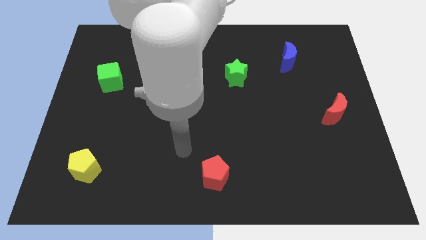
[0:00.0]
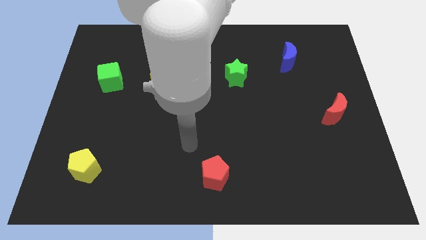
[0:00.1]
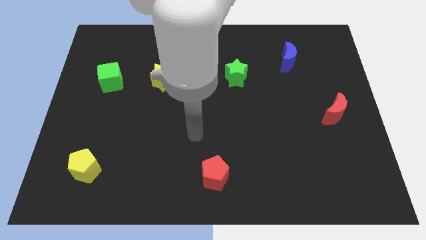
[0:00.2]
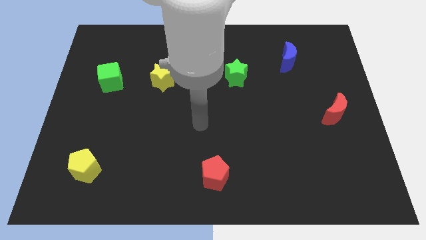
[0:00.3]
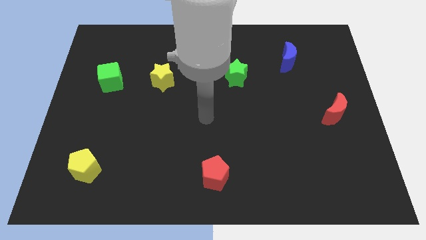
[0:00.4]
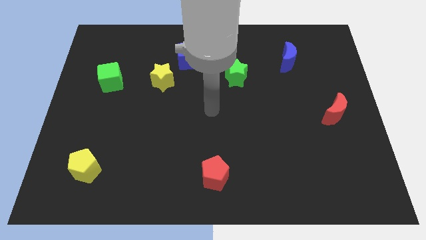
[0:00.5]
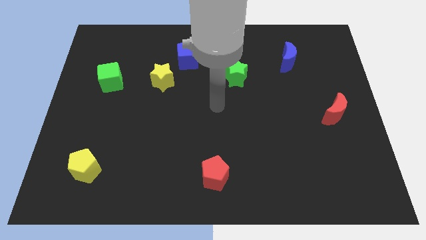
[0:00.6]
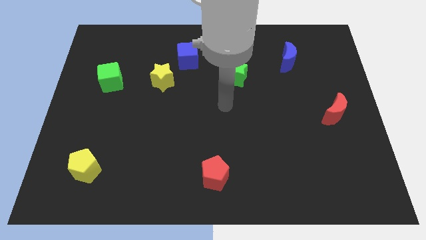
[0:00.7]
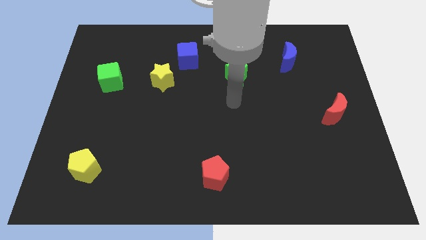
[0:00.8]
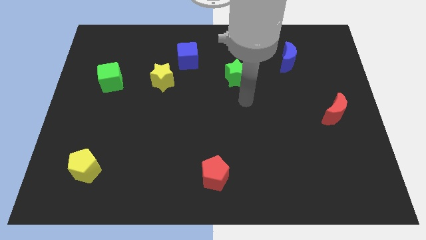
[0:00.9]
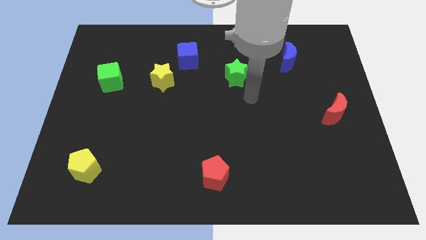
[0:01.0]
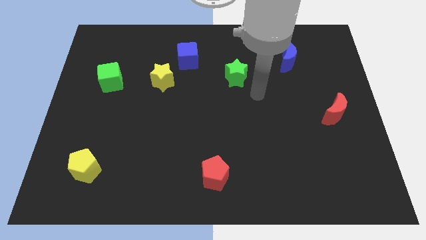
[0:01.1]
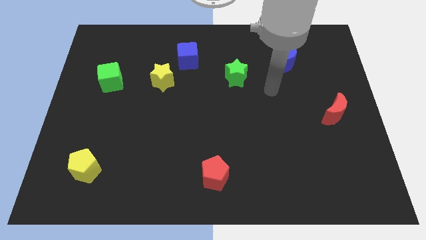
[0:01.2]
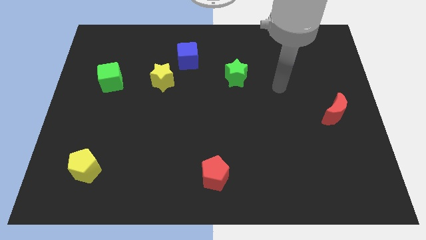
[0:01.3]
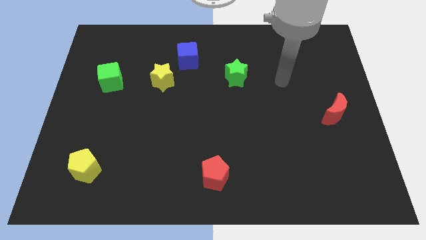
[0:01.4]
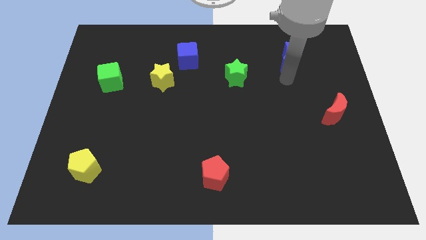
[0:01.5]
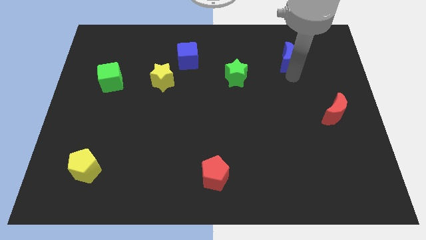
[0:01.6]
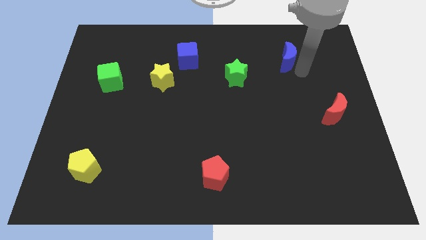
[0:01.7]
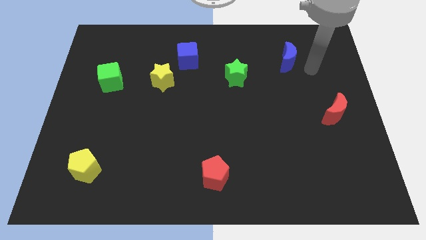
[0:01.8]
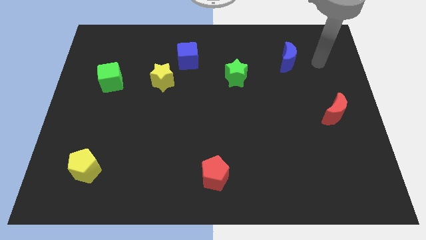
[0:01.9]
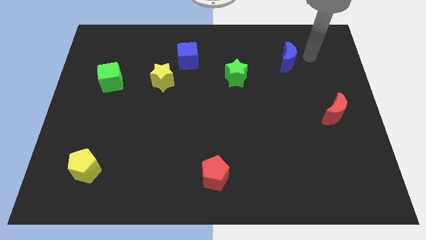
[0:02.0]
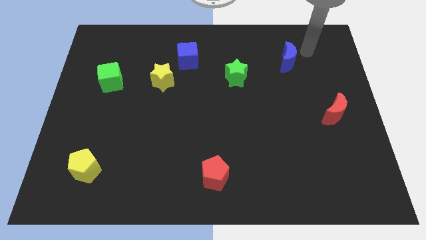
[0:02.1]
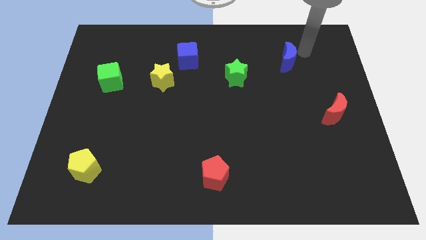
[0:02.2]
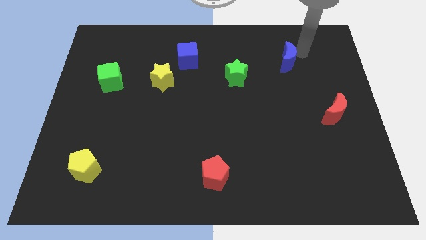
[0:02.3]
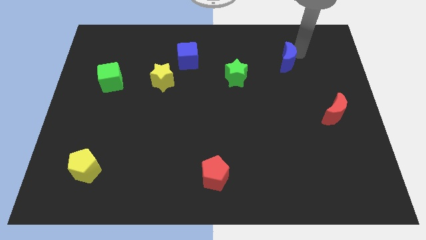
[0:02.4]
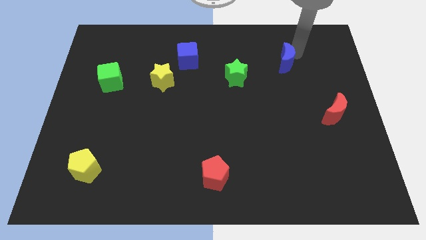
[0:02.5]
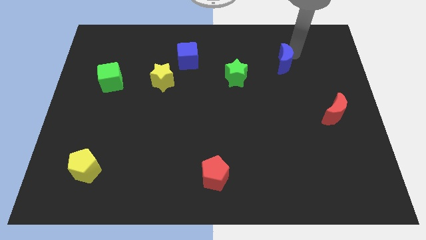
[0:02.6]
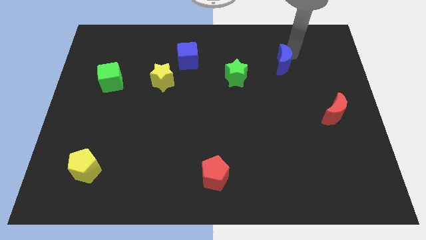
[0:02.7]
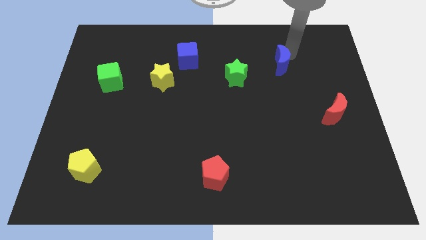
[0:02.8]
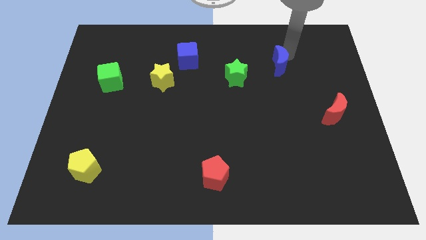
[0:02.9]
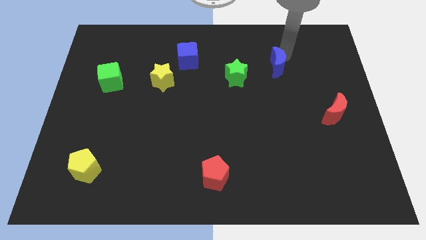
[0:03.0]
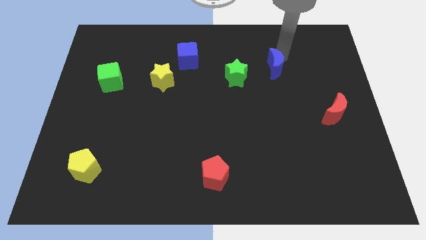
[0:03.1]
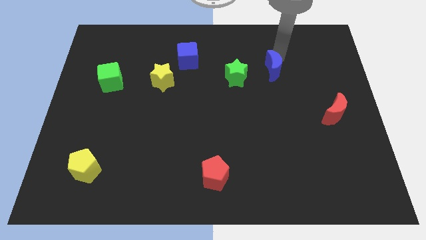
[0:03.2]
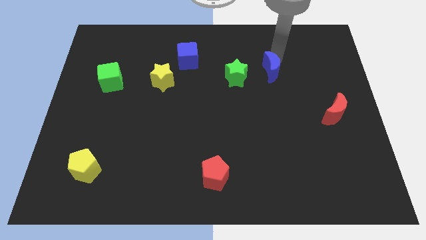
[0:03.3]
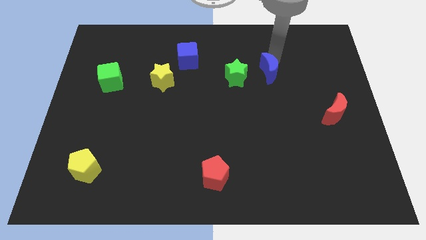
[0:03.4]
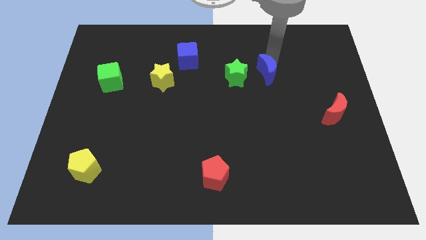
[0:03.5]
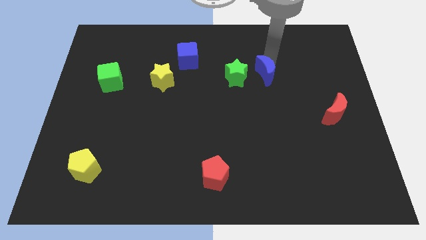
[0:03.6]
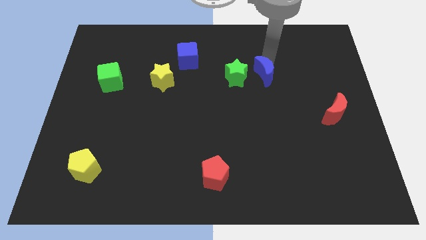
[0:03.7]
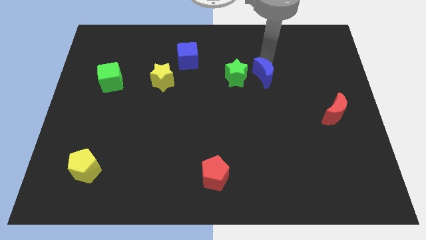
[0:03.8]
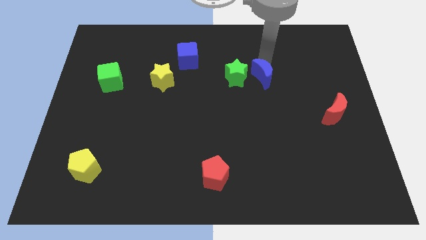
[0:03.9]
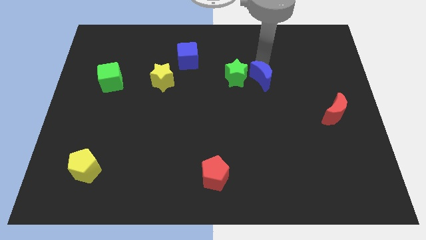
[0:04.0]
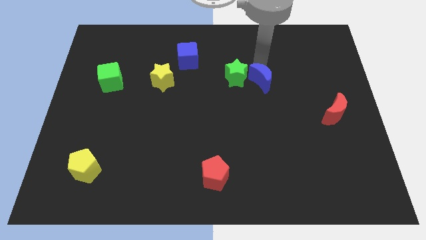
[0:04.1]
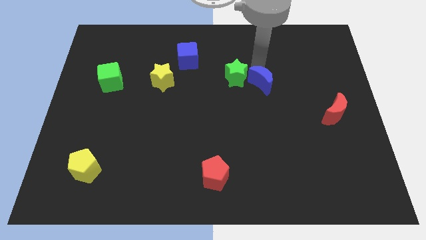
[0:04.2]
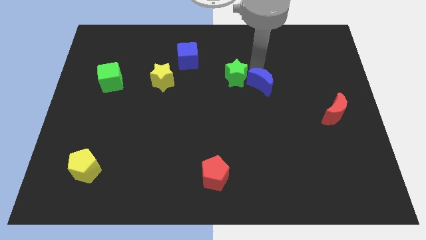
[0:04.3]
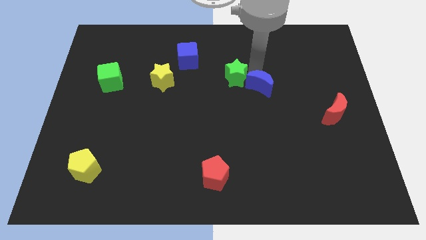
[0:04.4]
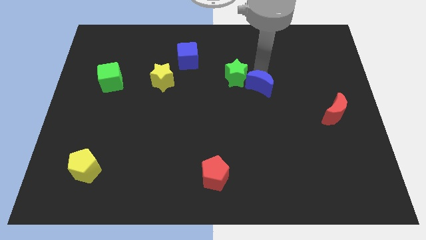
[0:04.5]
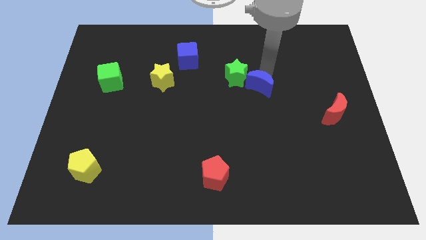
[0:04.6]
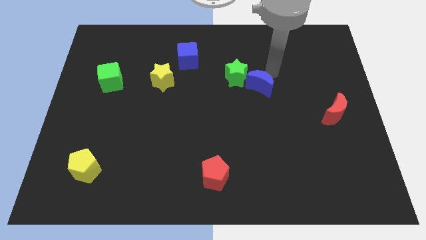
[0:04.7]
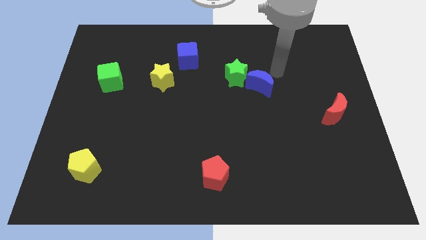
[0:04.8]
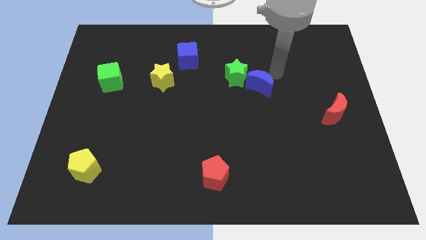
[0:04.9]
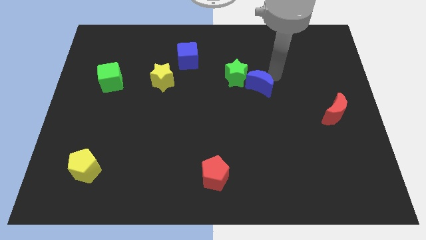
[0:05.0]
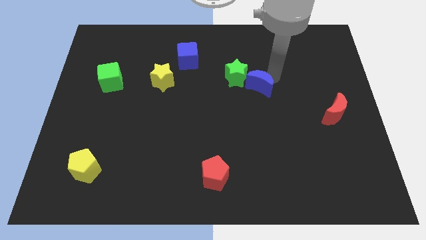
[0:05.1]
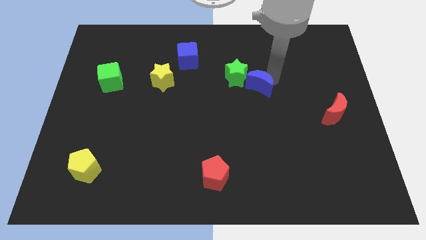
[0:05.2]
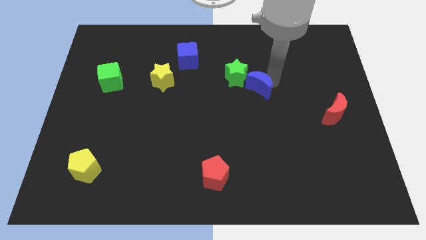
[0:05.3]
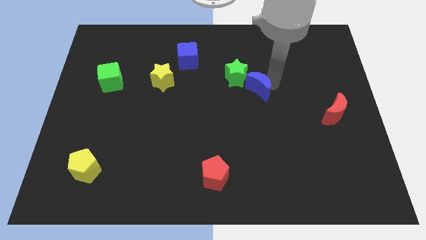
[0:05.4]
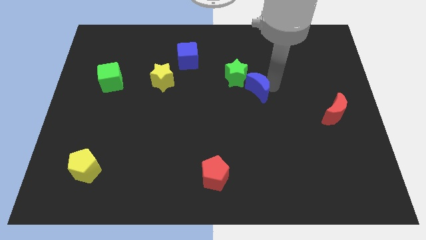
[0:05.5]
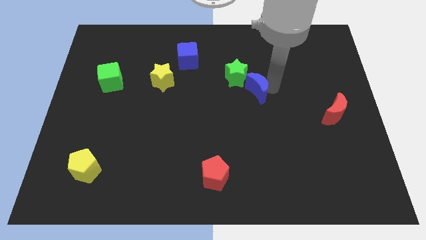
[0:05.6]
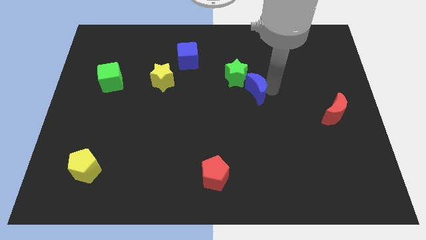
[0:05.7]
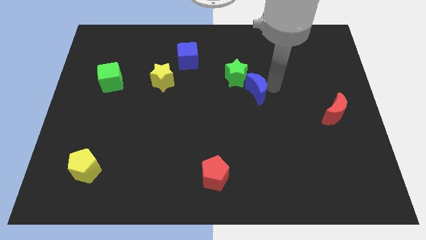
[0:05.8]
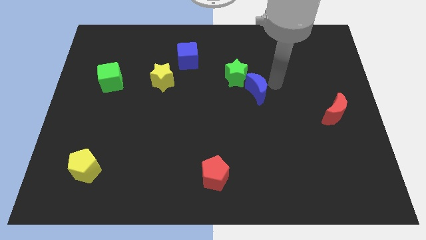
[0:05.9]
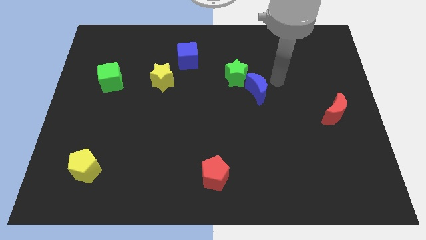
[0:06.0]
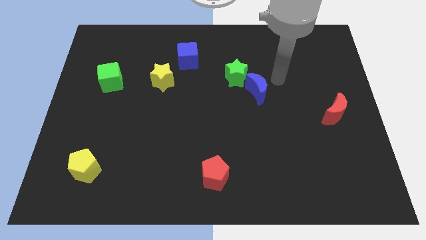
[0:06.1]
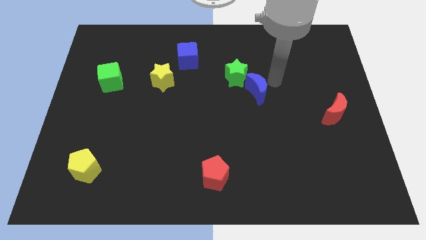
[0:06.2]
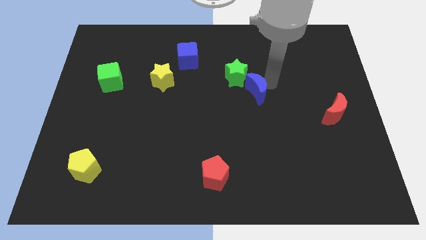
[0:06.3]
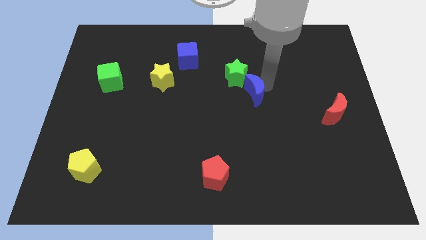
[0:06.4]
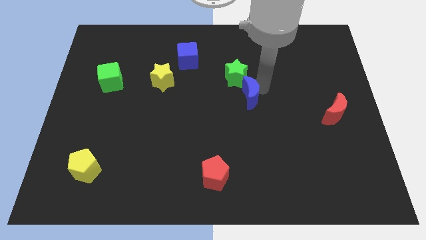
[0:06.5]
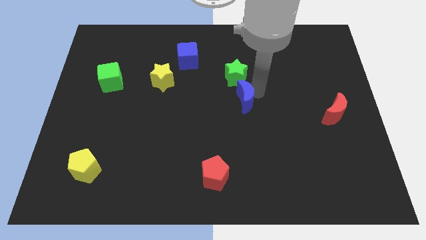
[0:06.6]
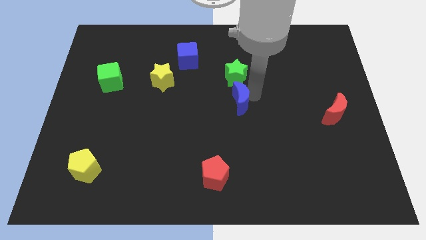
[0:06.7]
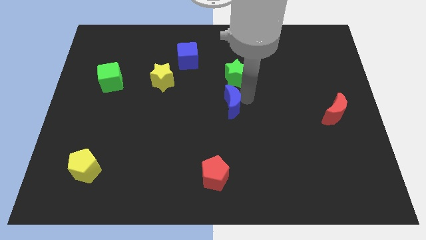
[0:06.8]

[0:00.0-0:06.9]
push the blue moon down and left diagonally

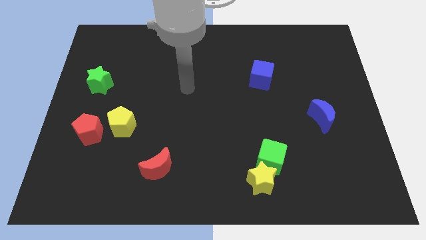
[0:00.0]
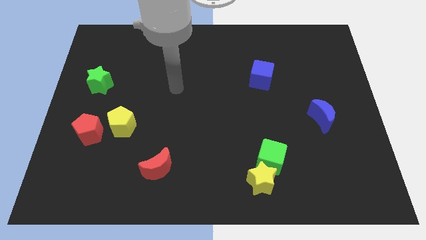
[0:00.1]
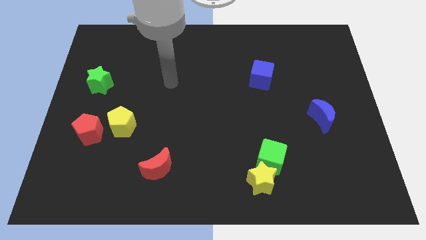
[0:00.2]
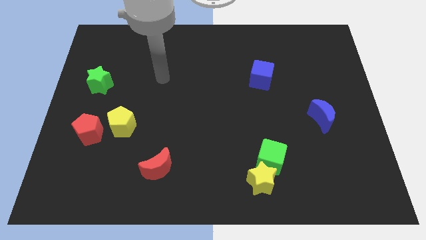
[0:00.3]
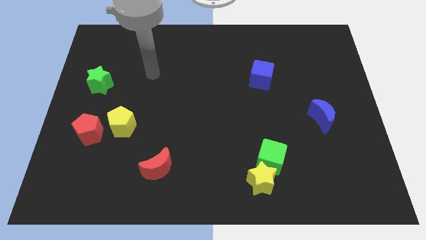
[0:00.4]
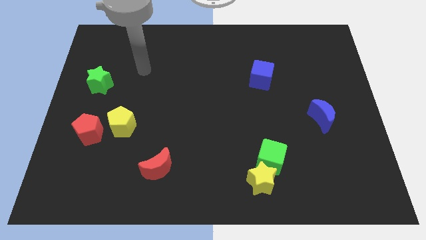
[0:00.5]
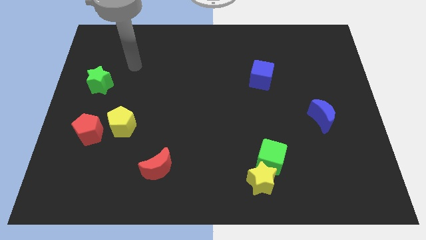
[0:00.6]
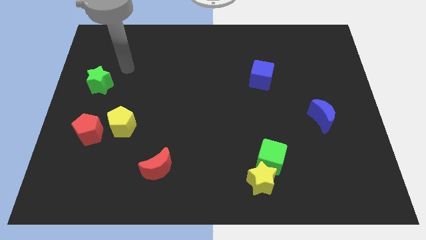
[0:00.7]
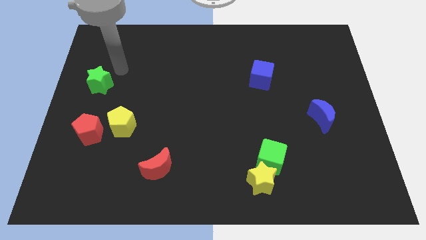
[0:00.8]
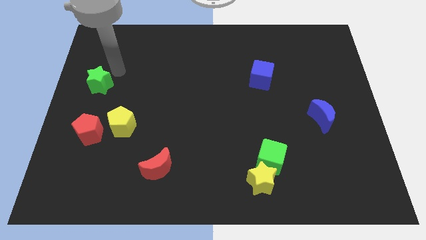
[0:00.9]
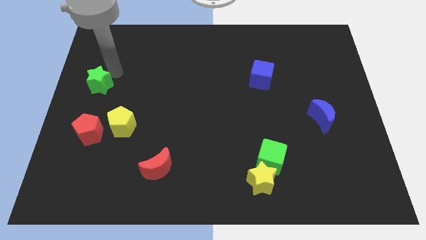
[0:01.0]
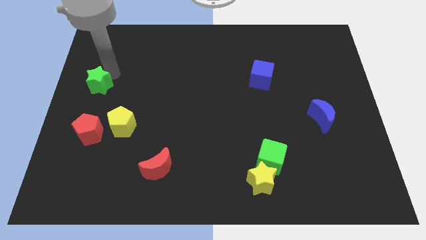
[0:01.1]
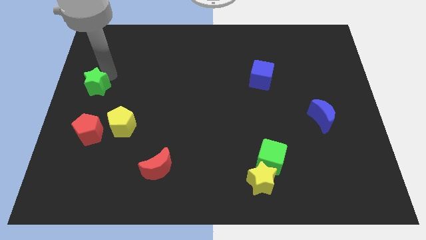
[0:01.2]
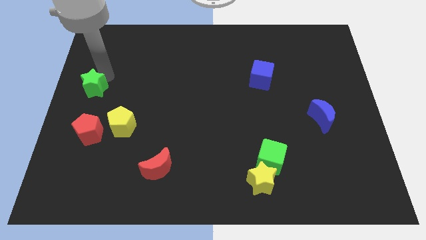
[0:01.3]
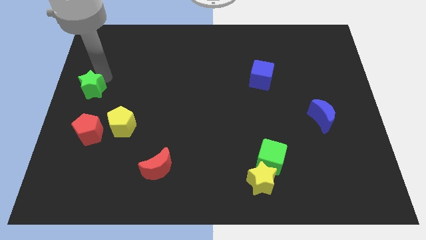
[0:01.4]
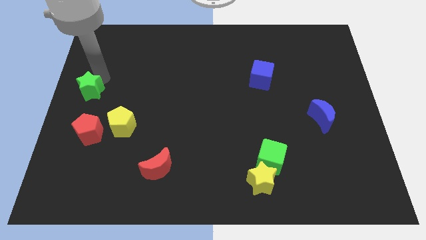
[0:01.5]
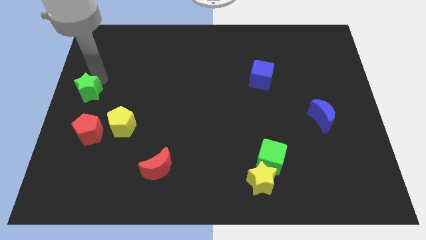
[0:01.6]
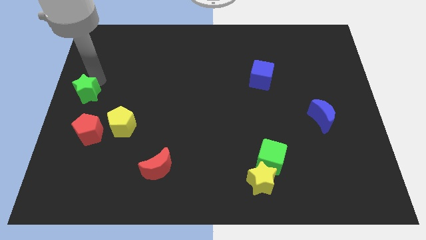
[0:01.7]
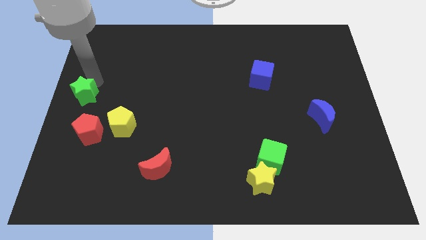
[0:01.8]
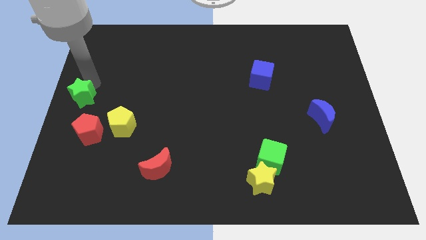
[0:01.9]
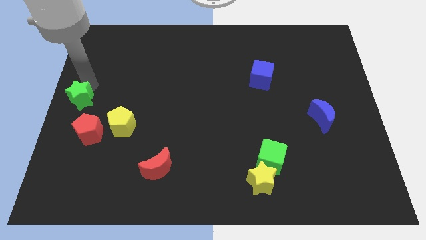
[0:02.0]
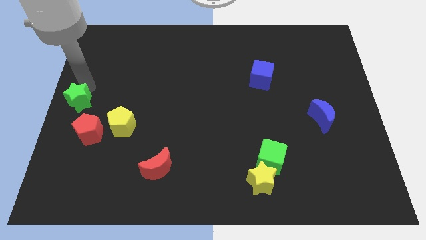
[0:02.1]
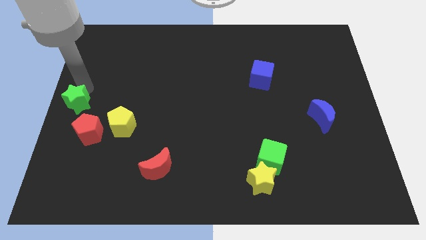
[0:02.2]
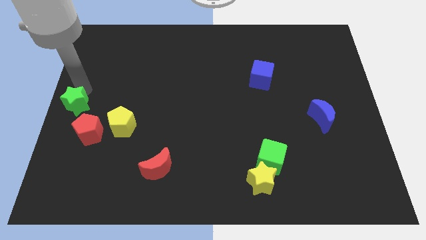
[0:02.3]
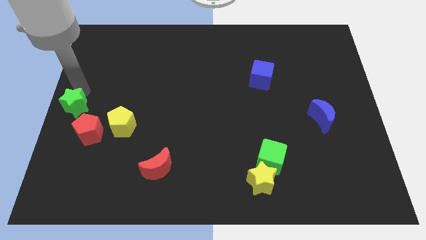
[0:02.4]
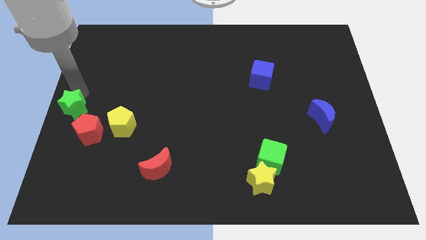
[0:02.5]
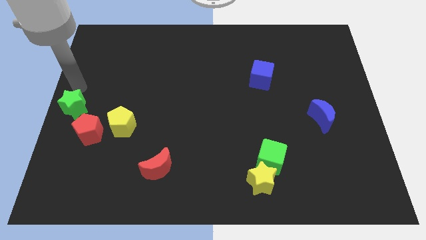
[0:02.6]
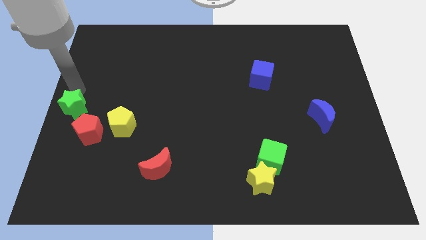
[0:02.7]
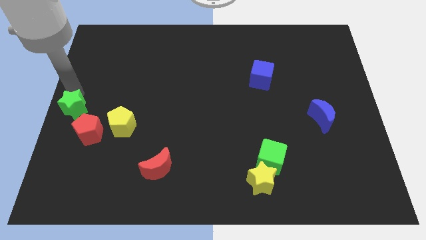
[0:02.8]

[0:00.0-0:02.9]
slide the green star downwards a little
